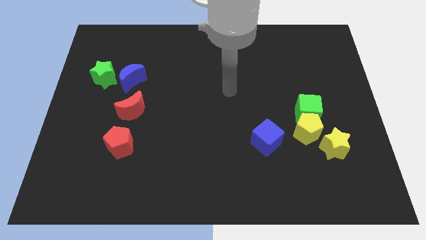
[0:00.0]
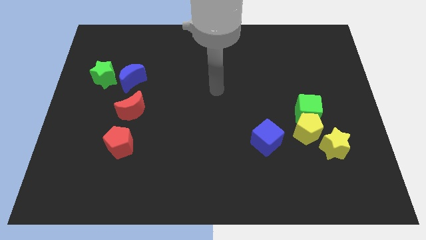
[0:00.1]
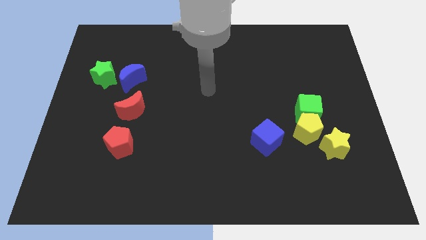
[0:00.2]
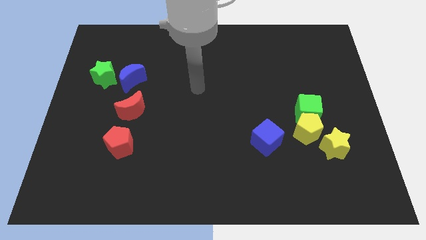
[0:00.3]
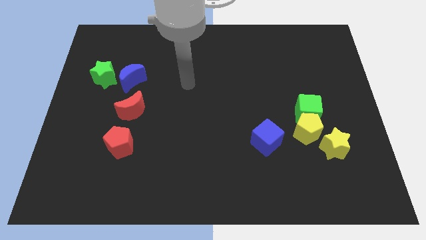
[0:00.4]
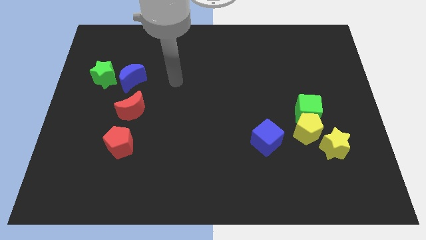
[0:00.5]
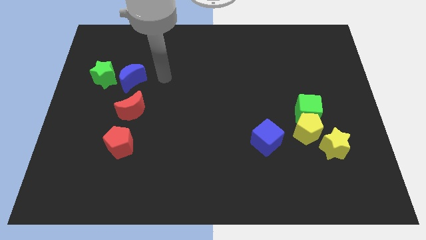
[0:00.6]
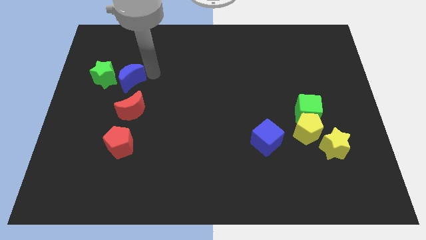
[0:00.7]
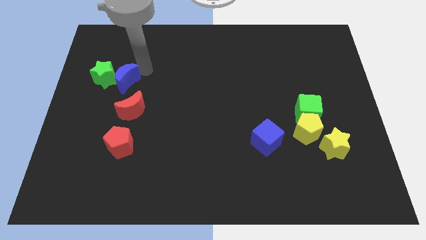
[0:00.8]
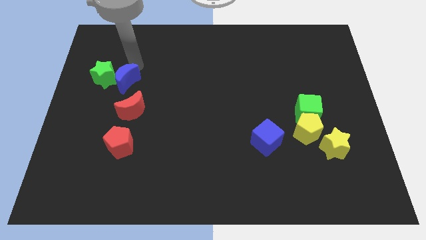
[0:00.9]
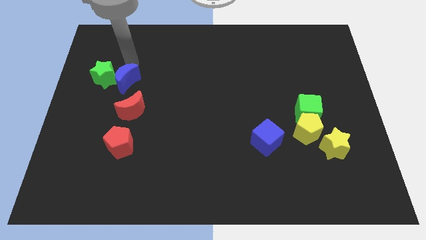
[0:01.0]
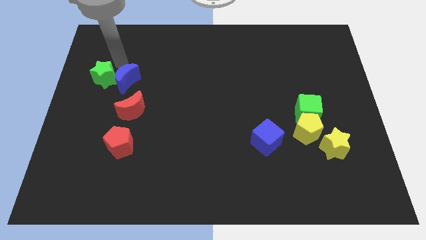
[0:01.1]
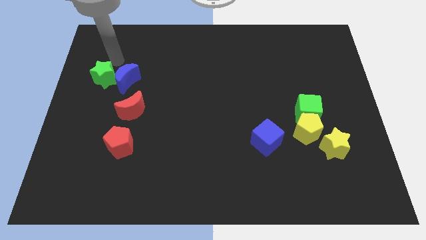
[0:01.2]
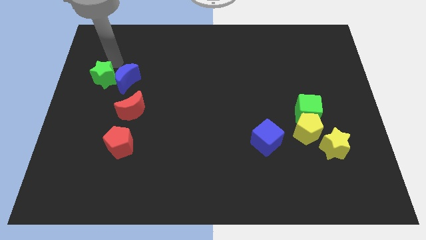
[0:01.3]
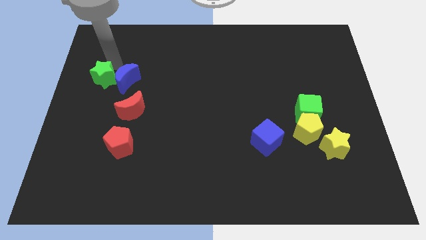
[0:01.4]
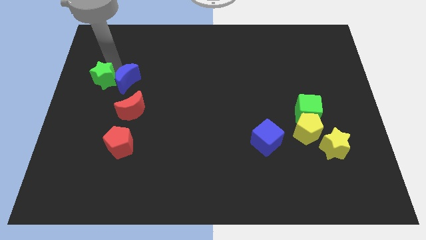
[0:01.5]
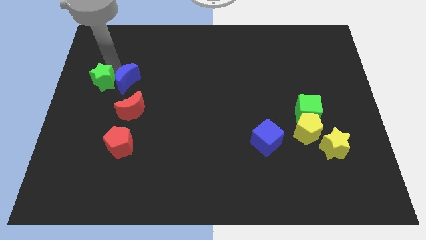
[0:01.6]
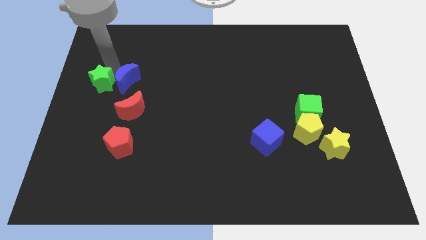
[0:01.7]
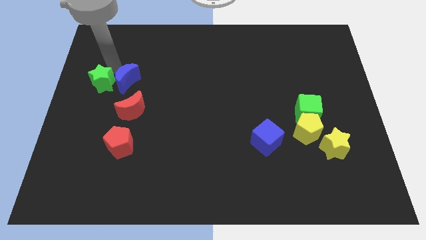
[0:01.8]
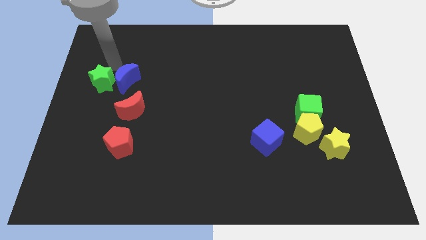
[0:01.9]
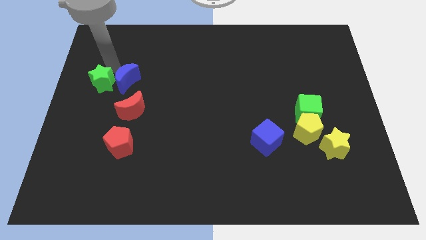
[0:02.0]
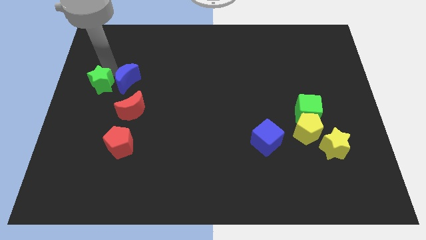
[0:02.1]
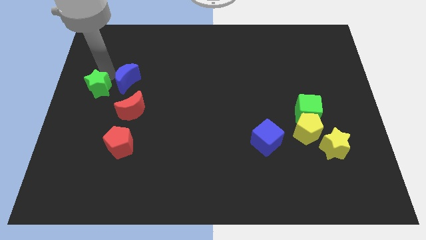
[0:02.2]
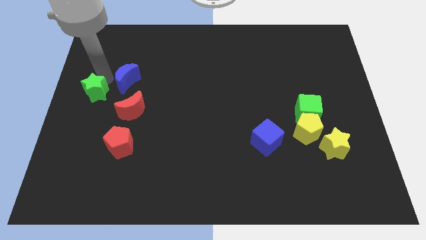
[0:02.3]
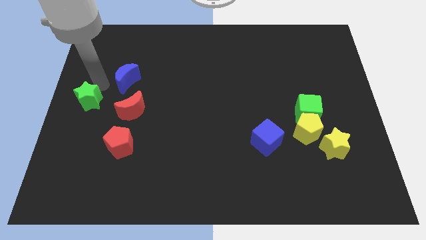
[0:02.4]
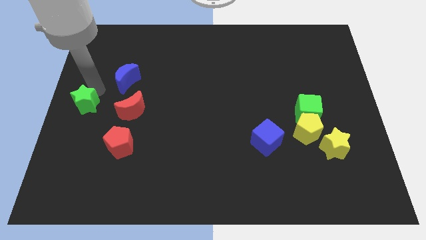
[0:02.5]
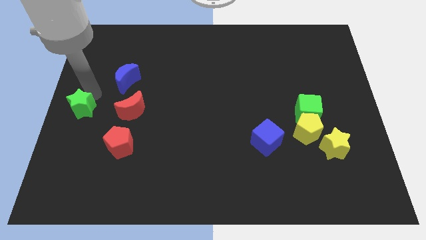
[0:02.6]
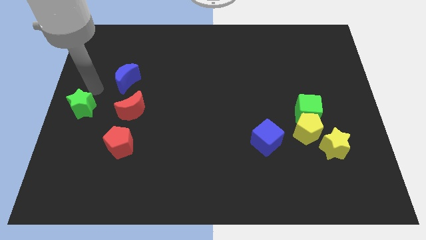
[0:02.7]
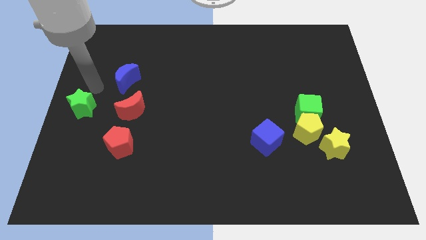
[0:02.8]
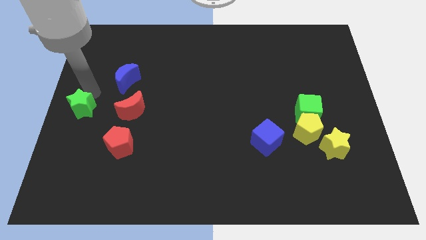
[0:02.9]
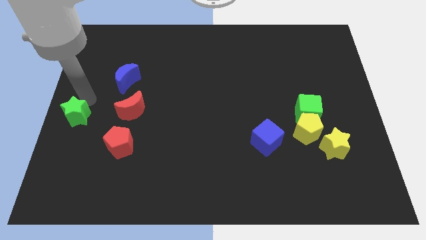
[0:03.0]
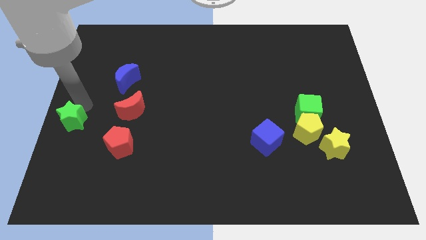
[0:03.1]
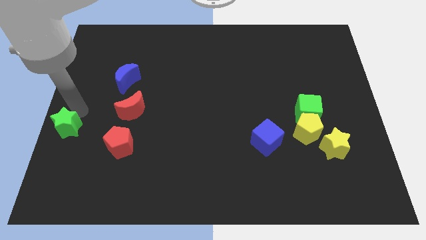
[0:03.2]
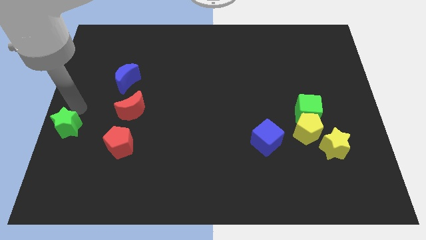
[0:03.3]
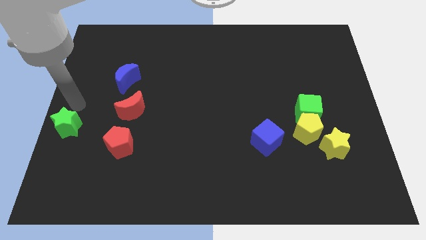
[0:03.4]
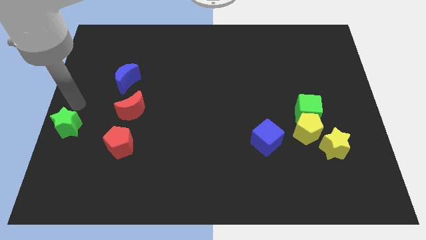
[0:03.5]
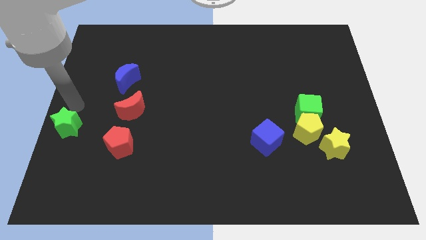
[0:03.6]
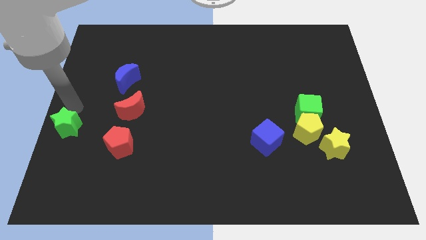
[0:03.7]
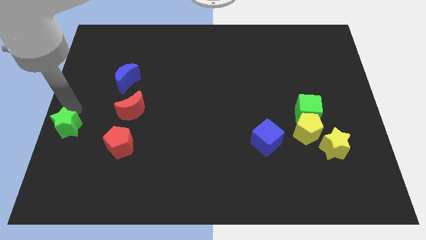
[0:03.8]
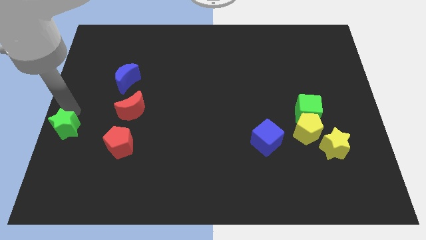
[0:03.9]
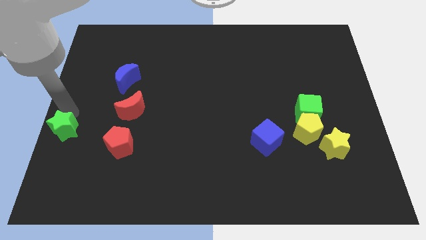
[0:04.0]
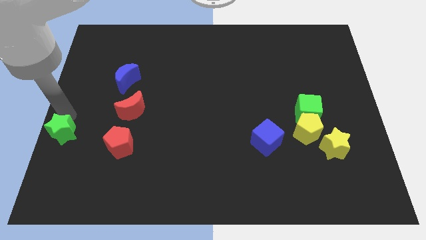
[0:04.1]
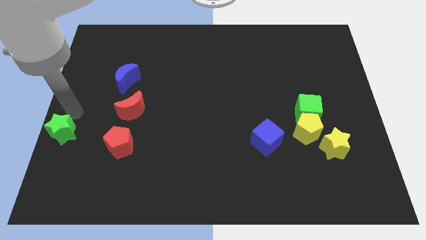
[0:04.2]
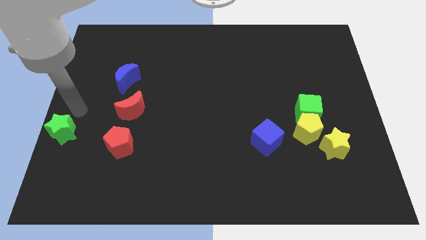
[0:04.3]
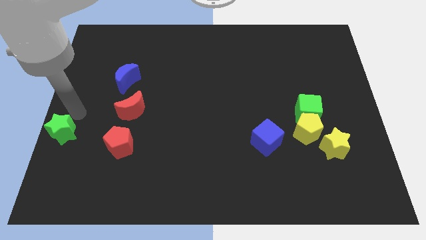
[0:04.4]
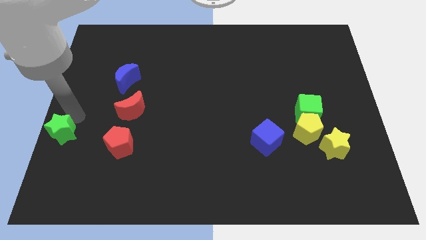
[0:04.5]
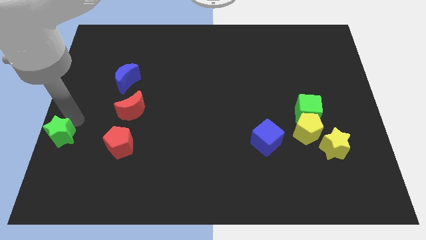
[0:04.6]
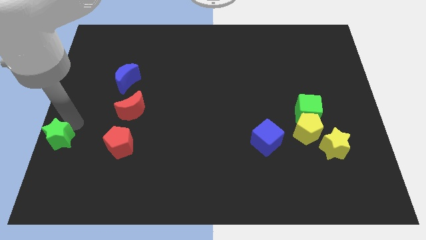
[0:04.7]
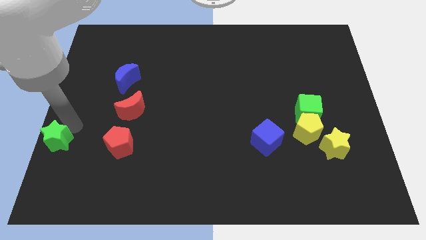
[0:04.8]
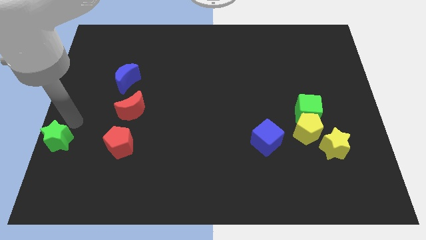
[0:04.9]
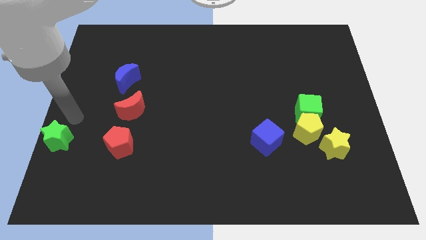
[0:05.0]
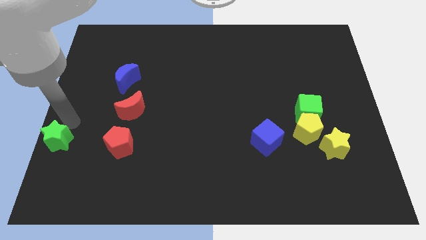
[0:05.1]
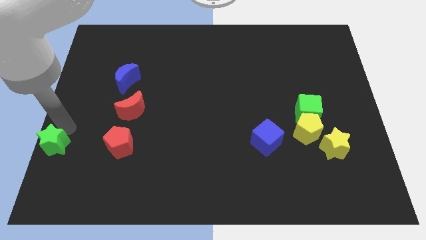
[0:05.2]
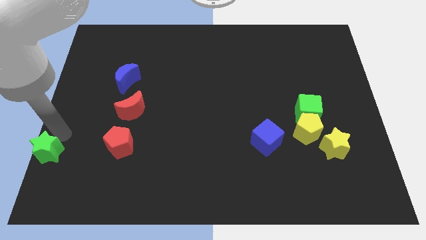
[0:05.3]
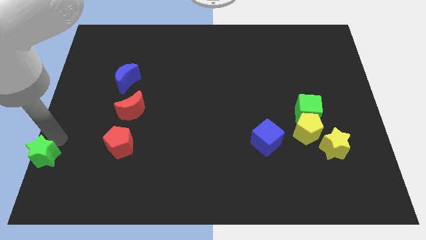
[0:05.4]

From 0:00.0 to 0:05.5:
slide the green star to the lower left corner

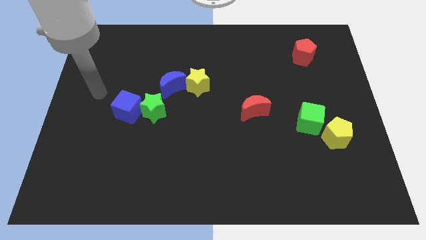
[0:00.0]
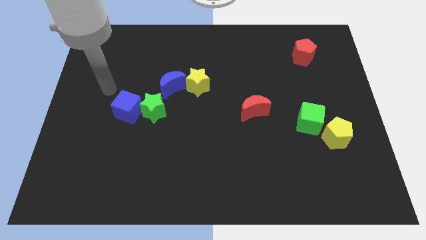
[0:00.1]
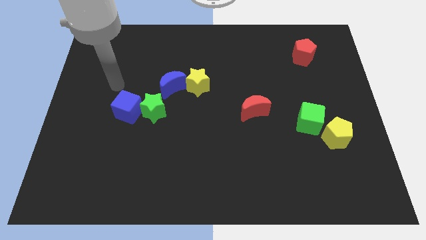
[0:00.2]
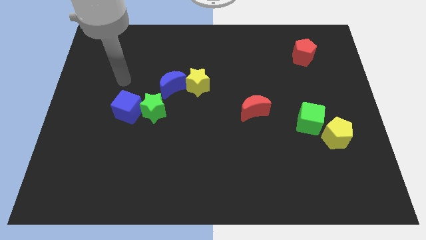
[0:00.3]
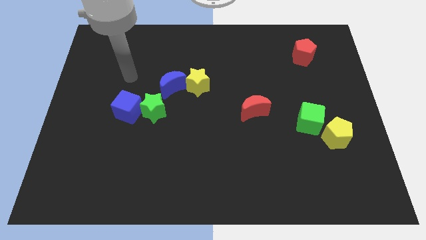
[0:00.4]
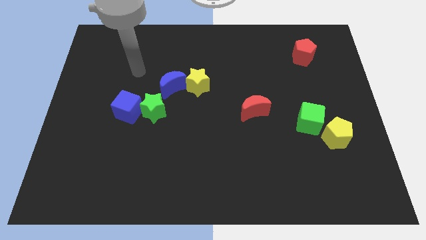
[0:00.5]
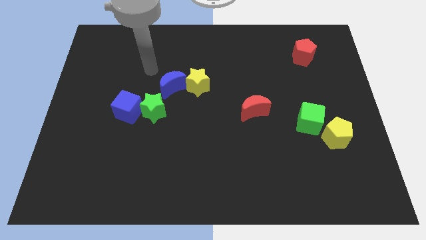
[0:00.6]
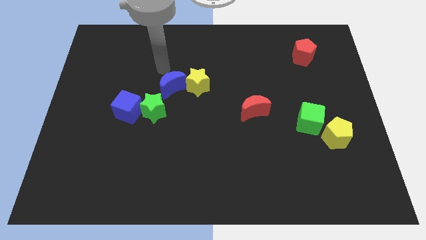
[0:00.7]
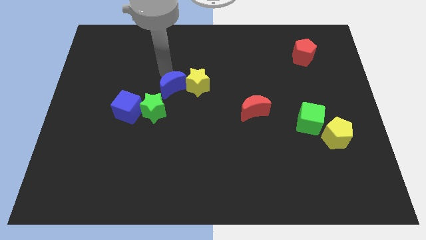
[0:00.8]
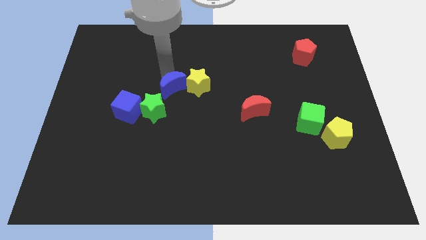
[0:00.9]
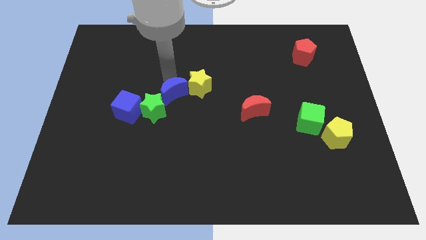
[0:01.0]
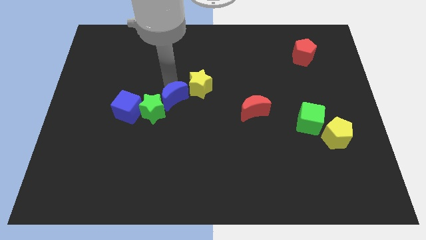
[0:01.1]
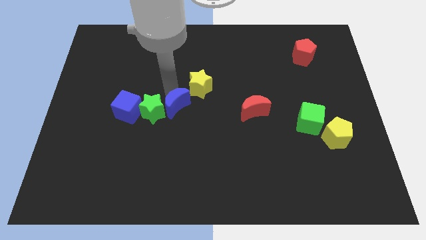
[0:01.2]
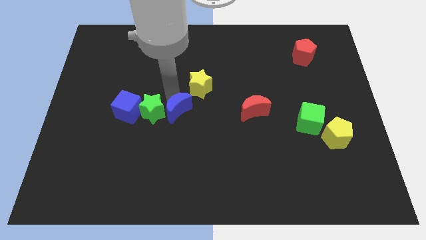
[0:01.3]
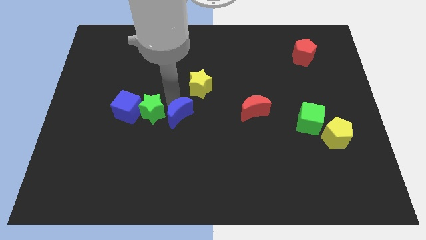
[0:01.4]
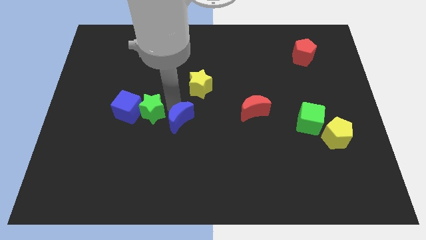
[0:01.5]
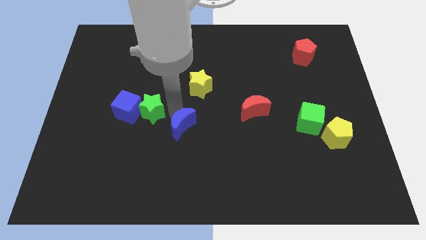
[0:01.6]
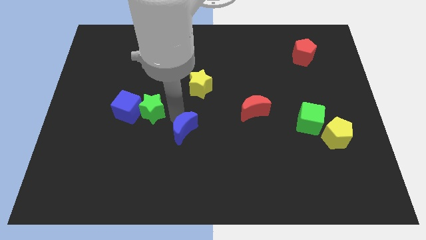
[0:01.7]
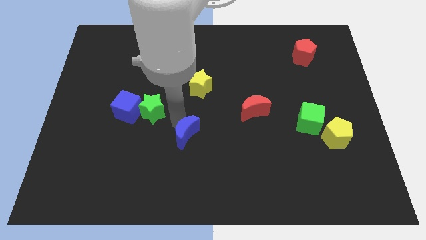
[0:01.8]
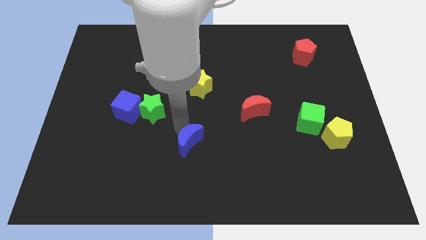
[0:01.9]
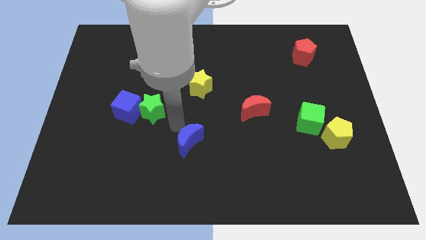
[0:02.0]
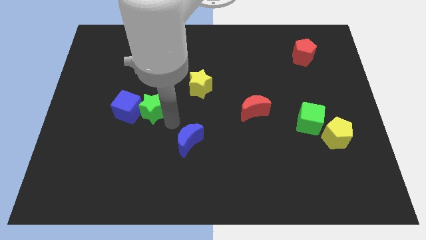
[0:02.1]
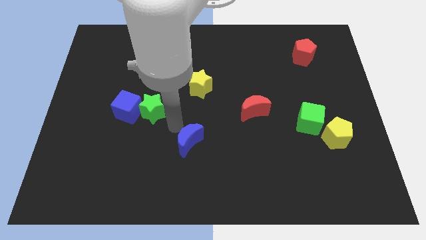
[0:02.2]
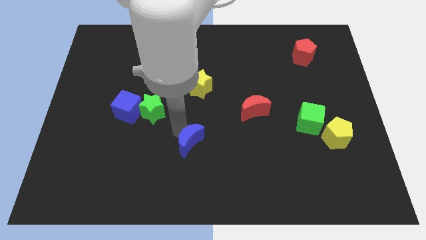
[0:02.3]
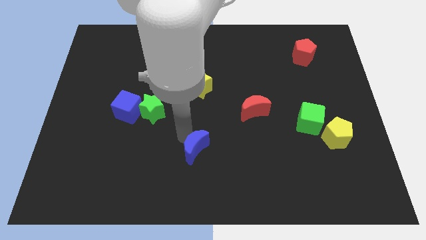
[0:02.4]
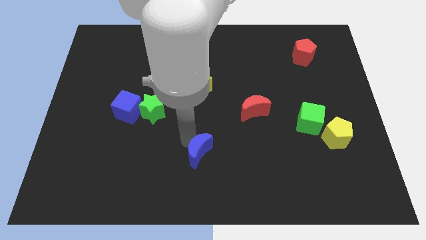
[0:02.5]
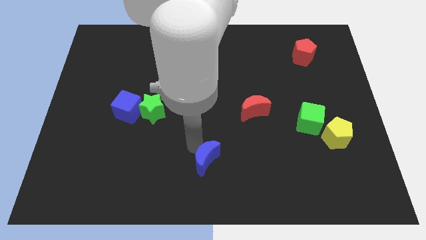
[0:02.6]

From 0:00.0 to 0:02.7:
push the blue moon to the bottom side

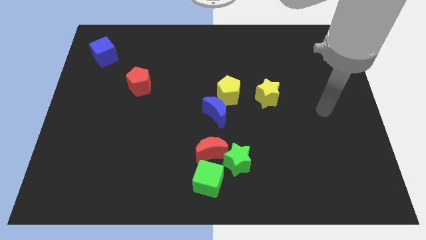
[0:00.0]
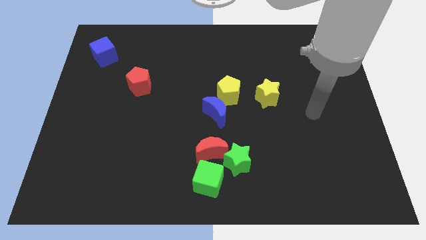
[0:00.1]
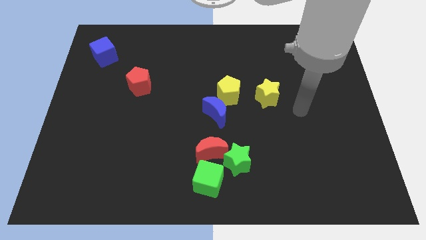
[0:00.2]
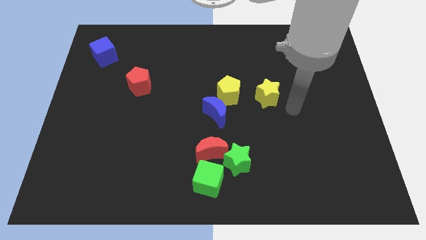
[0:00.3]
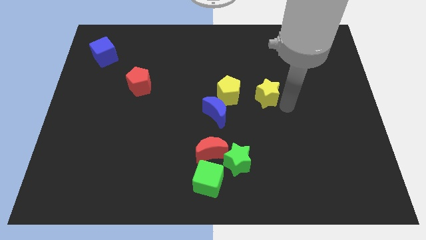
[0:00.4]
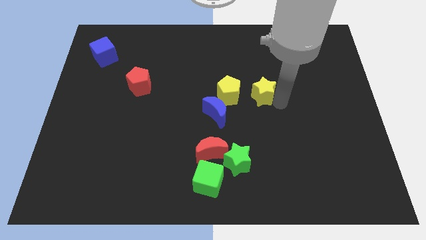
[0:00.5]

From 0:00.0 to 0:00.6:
put the yellow star to the center
